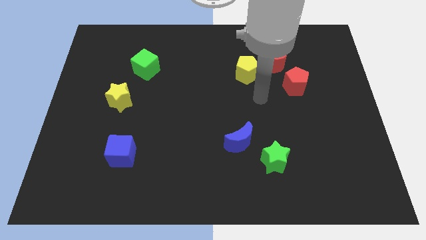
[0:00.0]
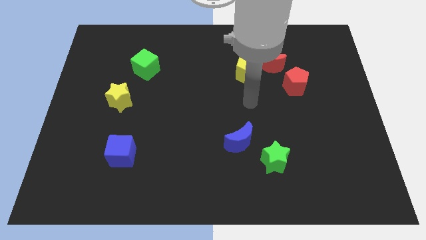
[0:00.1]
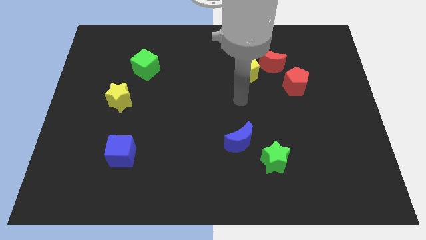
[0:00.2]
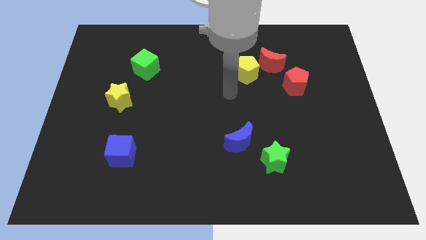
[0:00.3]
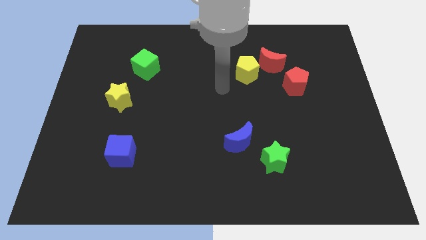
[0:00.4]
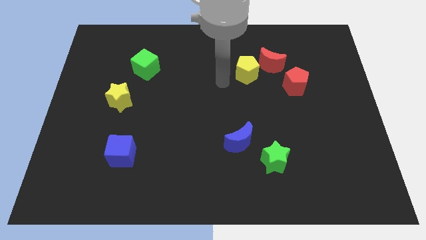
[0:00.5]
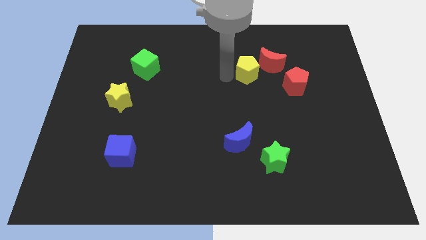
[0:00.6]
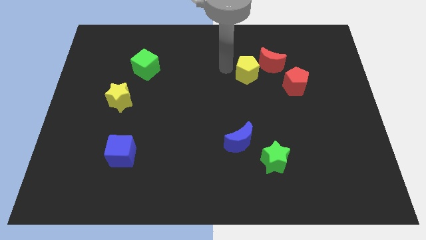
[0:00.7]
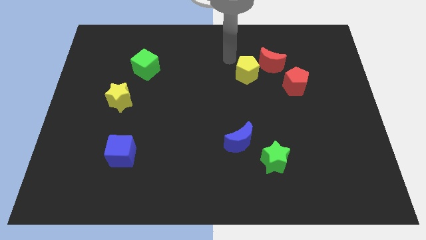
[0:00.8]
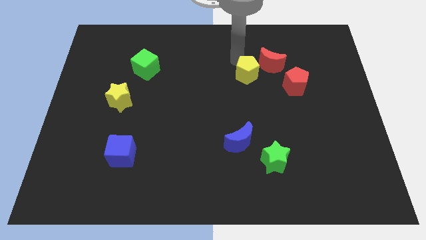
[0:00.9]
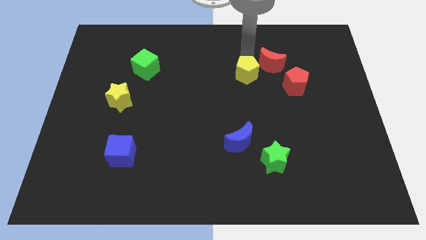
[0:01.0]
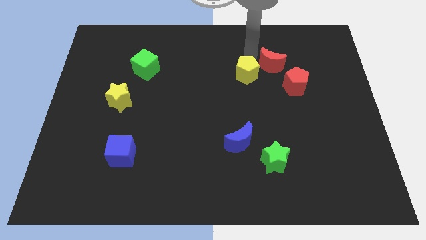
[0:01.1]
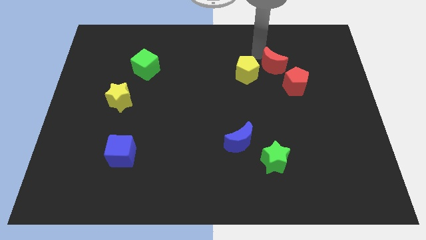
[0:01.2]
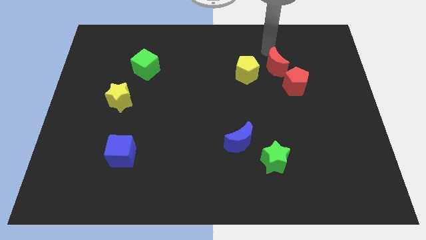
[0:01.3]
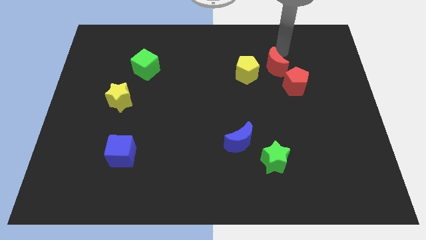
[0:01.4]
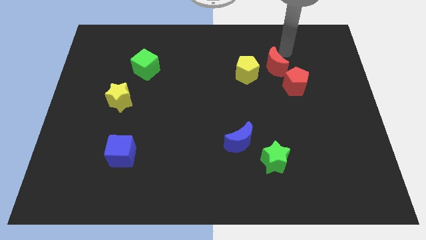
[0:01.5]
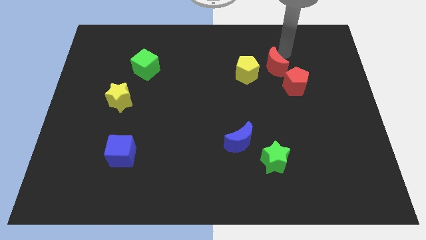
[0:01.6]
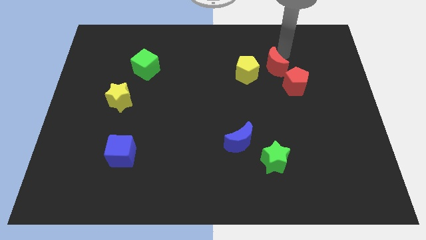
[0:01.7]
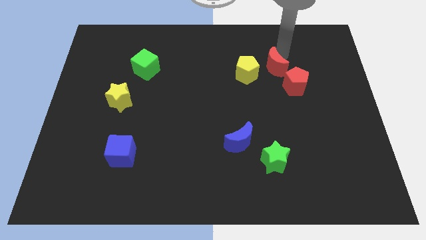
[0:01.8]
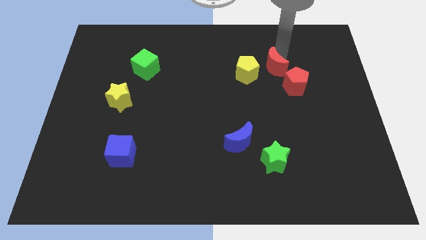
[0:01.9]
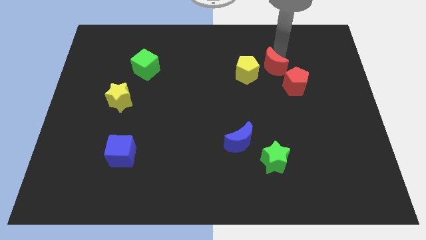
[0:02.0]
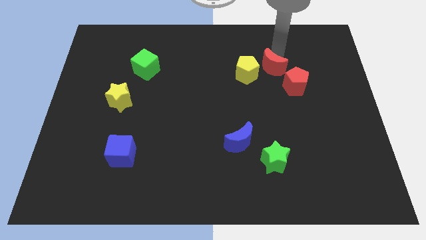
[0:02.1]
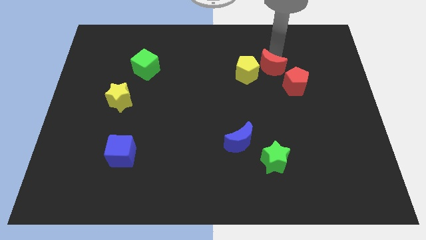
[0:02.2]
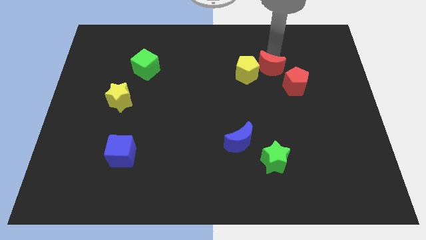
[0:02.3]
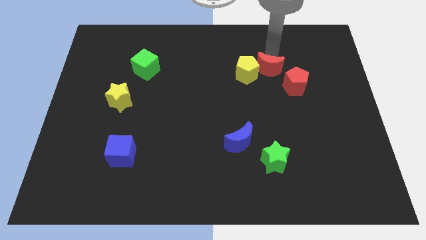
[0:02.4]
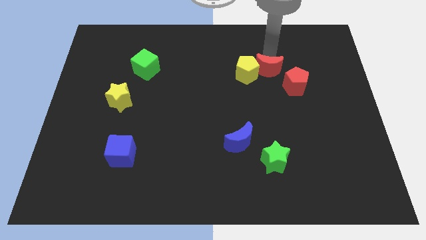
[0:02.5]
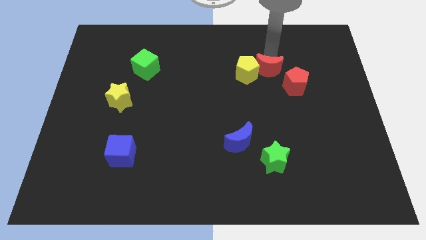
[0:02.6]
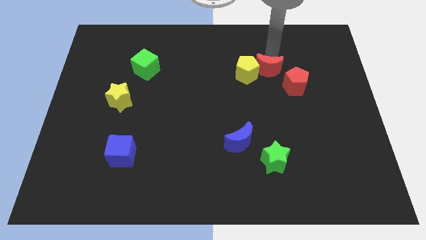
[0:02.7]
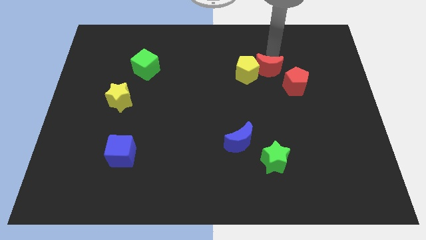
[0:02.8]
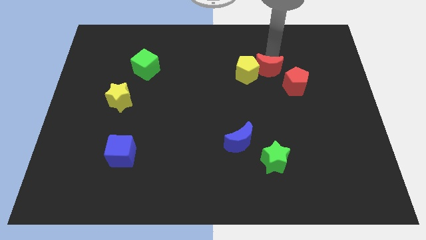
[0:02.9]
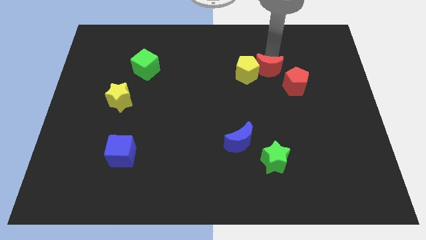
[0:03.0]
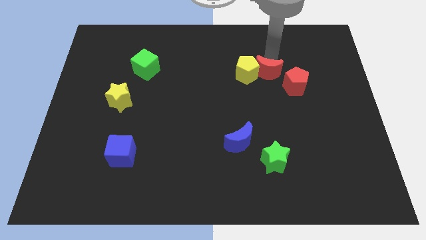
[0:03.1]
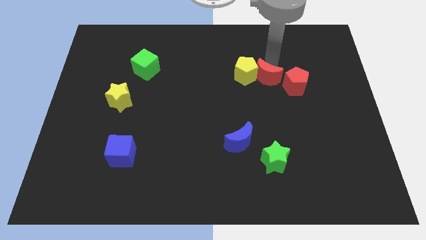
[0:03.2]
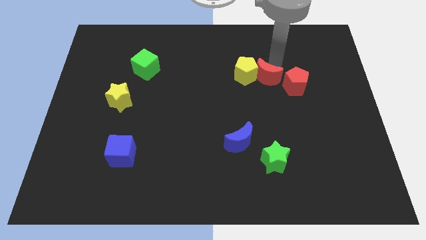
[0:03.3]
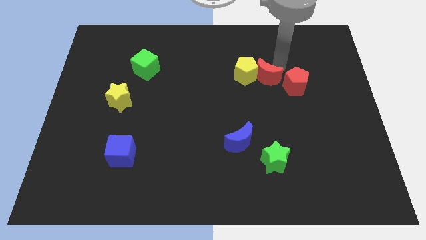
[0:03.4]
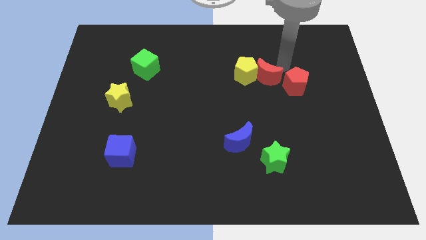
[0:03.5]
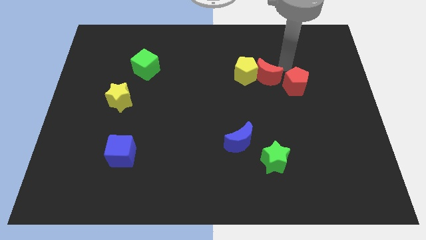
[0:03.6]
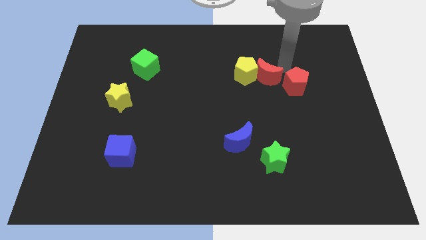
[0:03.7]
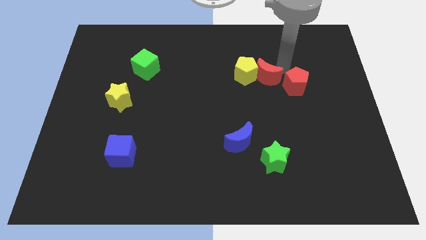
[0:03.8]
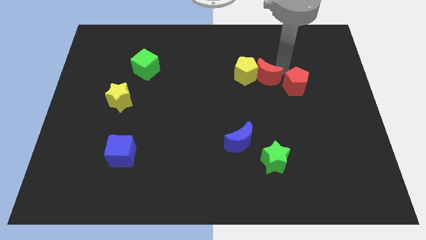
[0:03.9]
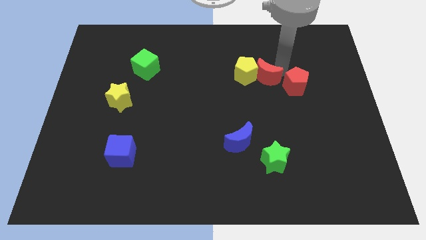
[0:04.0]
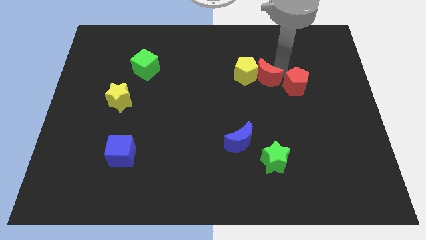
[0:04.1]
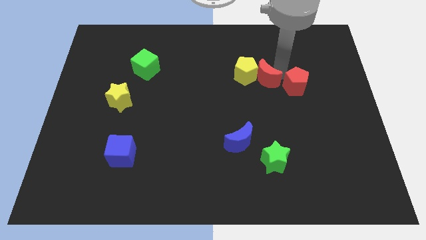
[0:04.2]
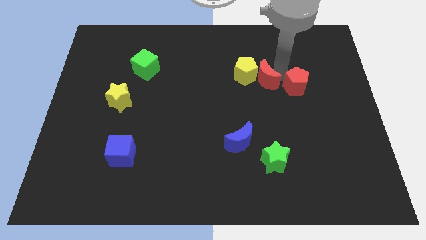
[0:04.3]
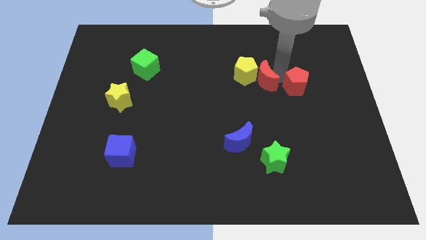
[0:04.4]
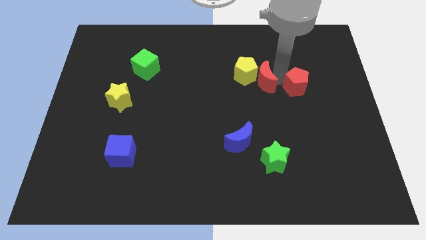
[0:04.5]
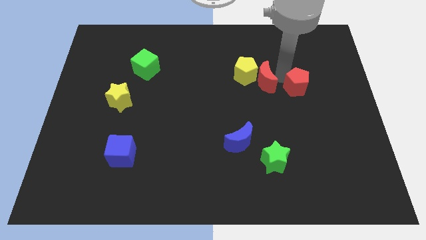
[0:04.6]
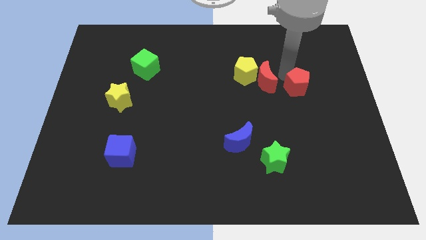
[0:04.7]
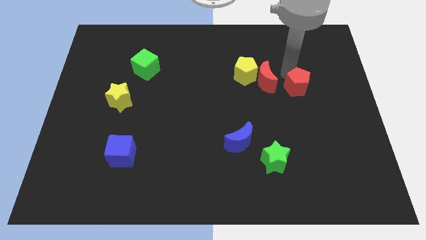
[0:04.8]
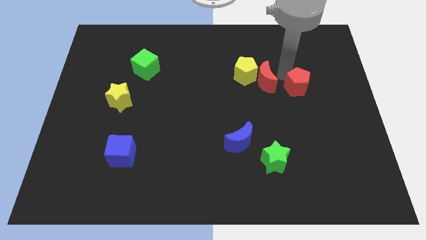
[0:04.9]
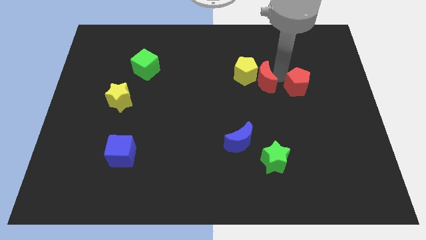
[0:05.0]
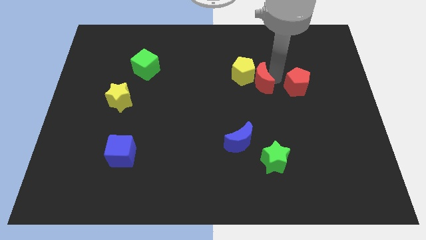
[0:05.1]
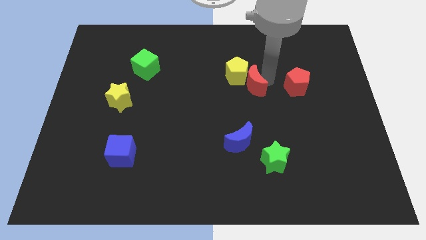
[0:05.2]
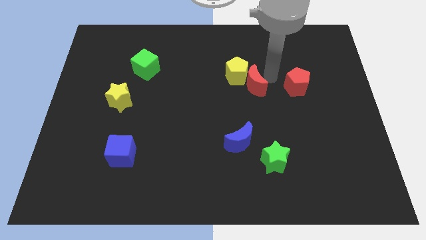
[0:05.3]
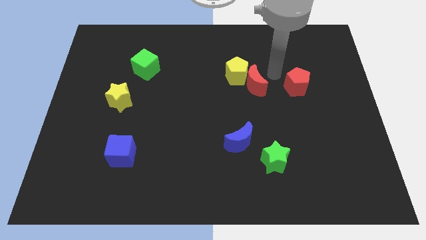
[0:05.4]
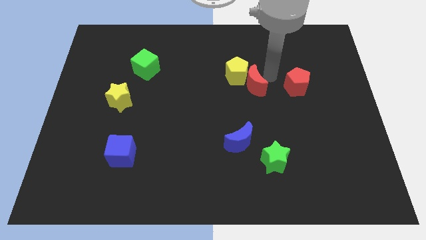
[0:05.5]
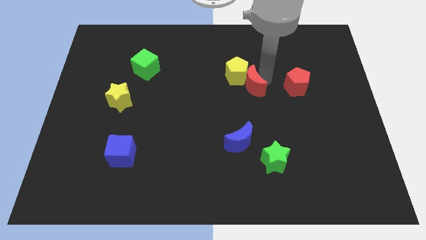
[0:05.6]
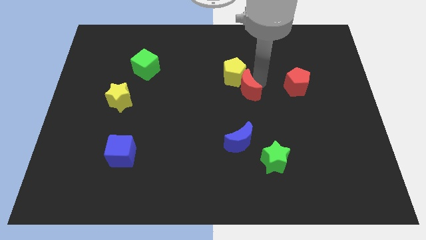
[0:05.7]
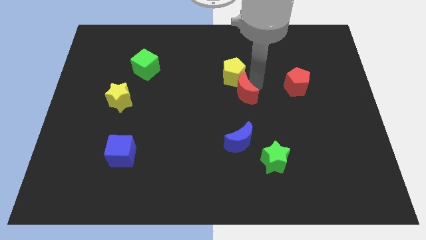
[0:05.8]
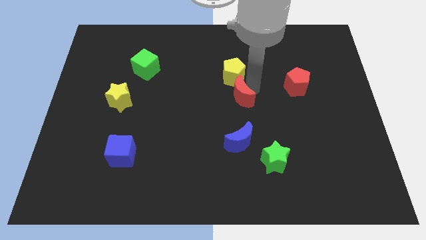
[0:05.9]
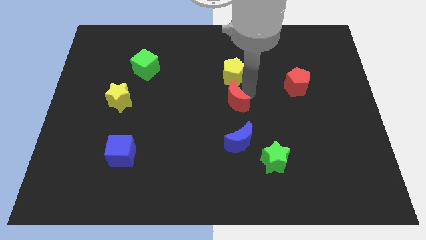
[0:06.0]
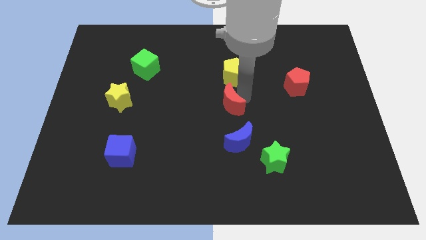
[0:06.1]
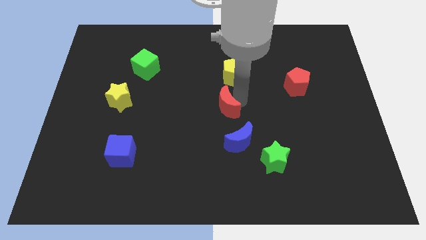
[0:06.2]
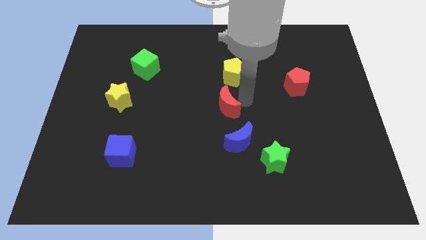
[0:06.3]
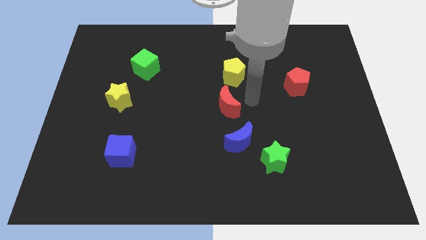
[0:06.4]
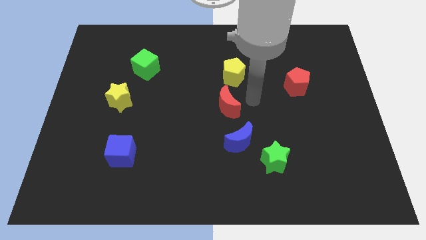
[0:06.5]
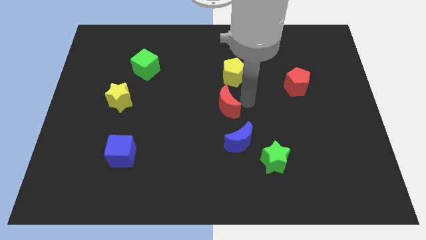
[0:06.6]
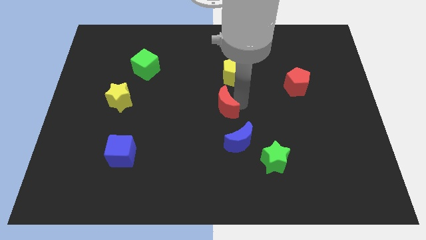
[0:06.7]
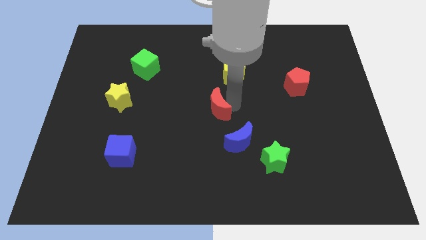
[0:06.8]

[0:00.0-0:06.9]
push the red moon downwards and then to the left

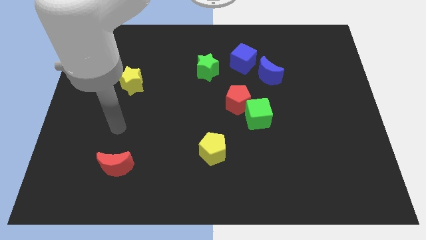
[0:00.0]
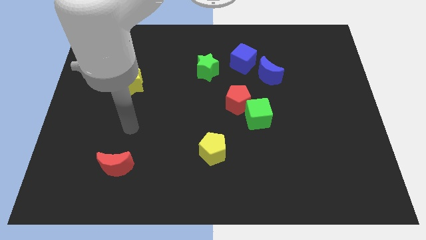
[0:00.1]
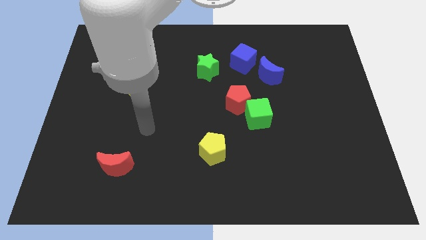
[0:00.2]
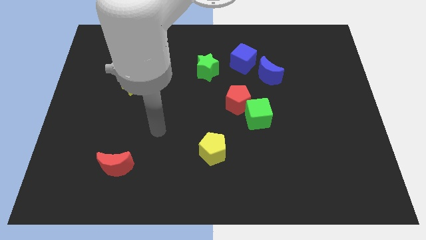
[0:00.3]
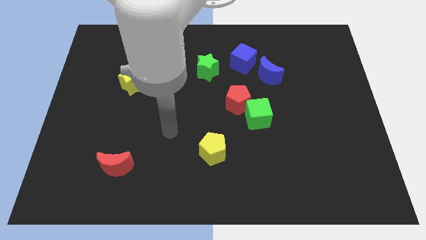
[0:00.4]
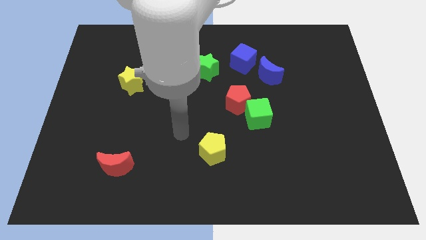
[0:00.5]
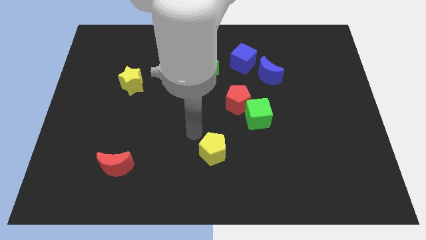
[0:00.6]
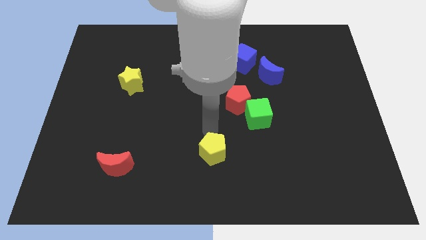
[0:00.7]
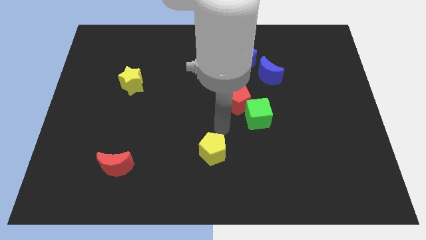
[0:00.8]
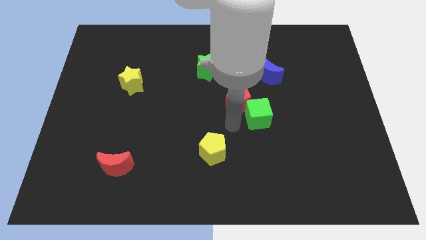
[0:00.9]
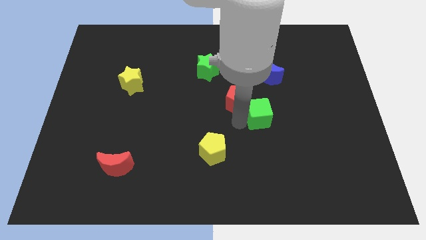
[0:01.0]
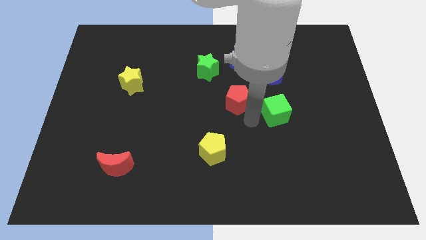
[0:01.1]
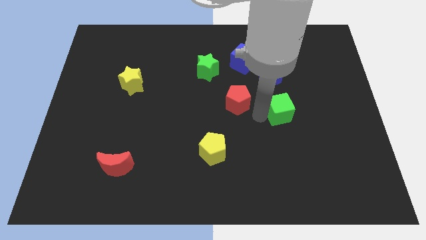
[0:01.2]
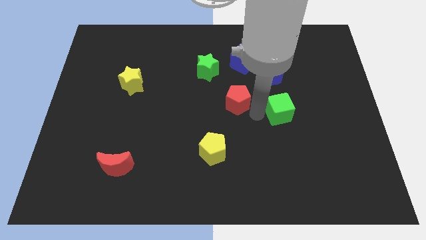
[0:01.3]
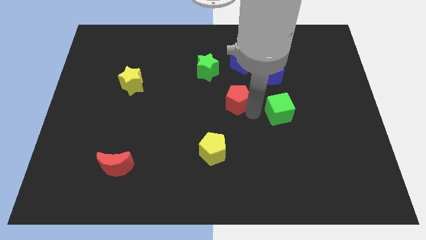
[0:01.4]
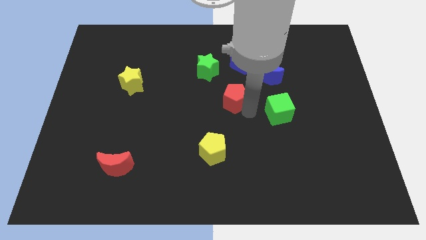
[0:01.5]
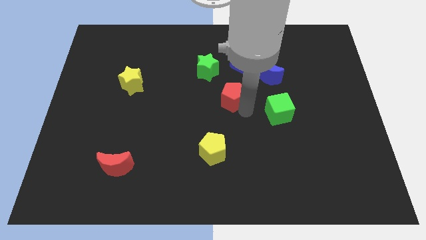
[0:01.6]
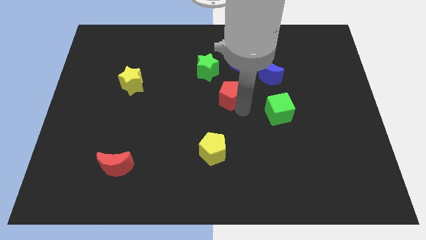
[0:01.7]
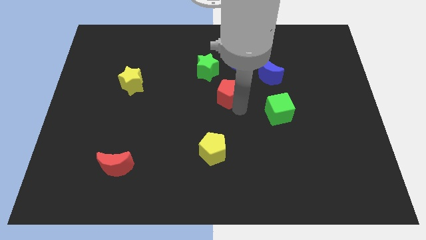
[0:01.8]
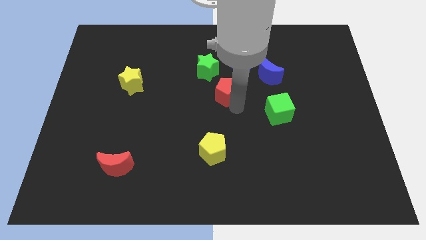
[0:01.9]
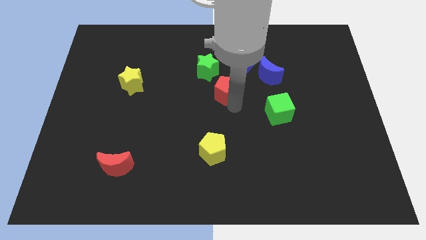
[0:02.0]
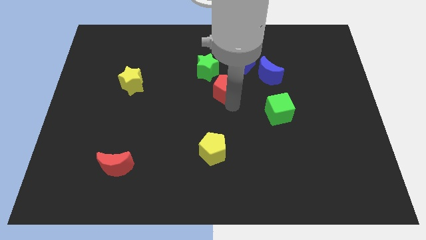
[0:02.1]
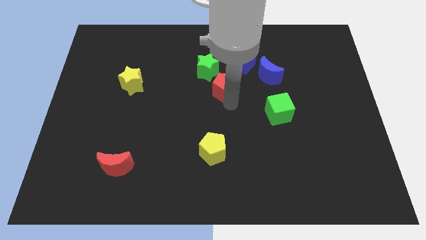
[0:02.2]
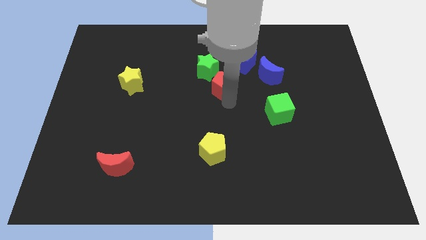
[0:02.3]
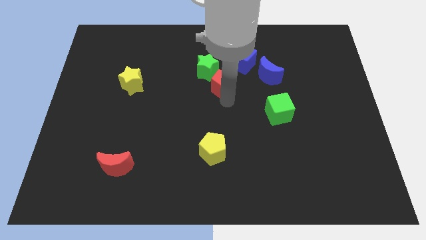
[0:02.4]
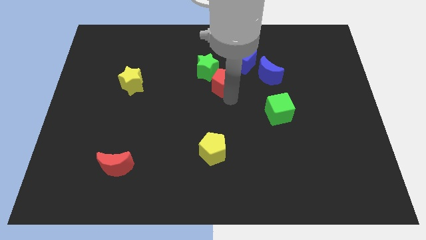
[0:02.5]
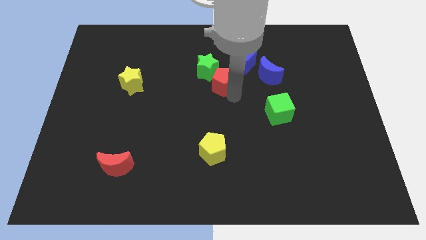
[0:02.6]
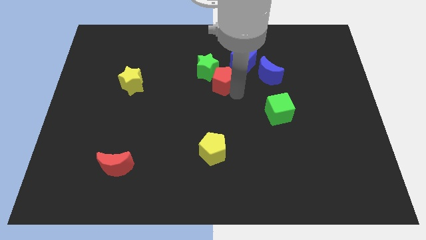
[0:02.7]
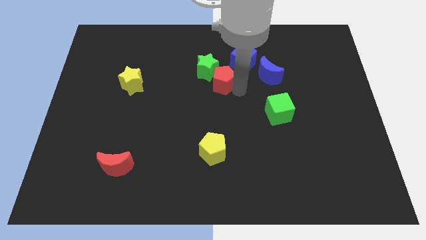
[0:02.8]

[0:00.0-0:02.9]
push the red pentagon upwards and left a bit
